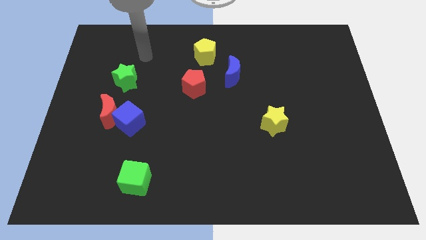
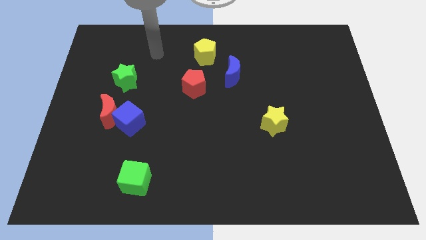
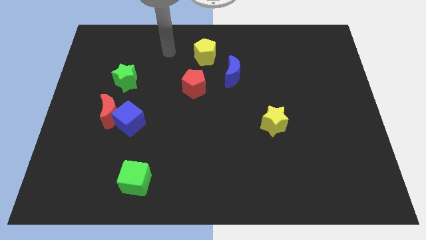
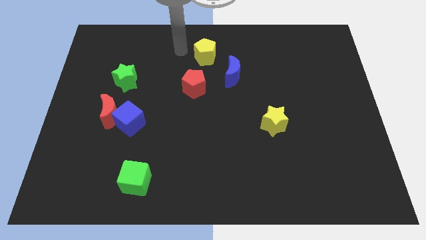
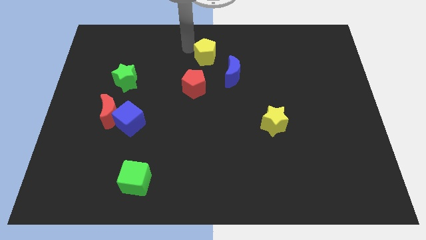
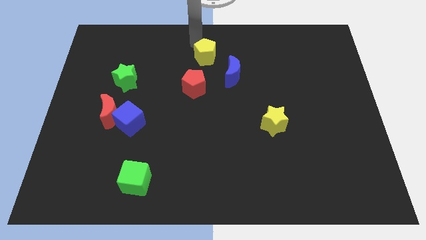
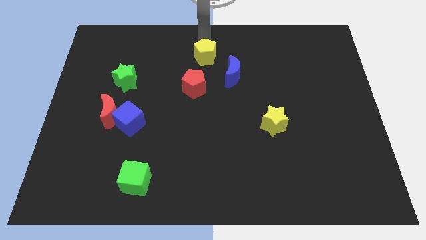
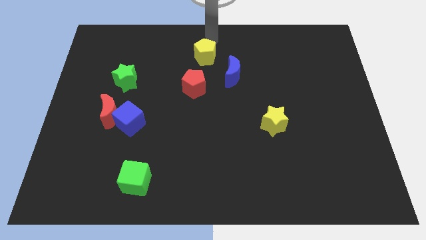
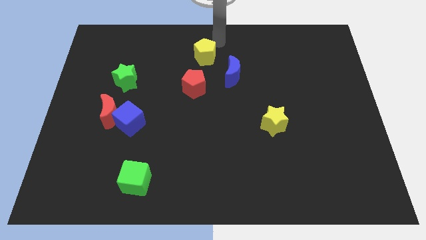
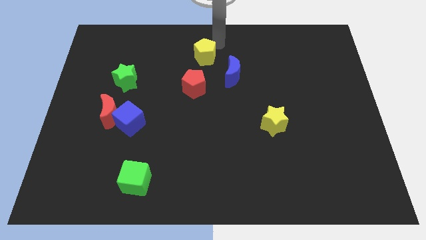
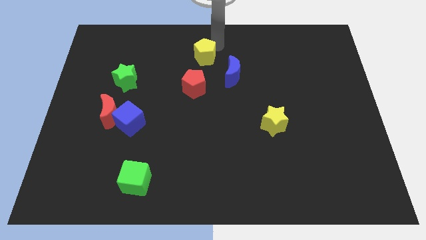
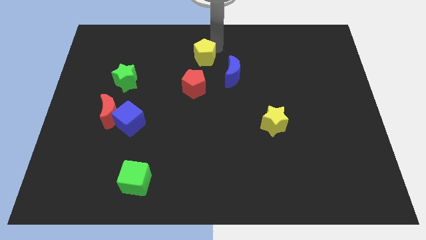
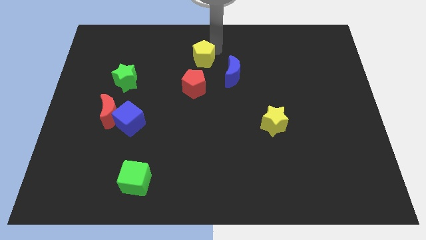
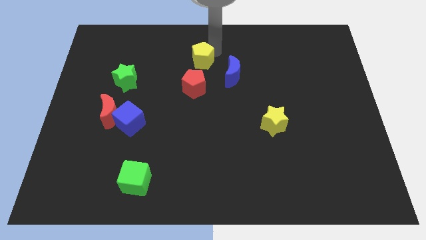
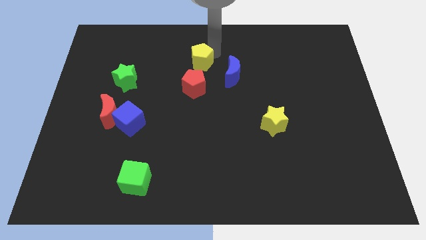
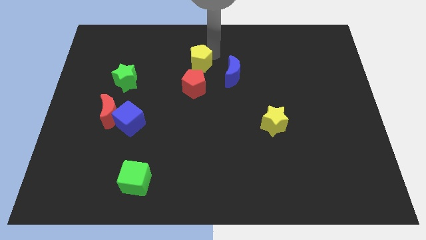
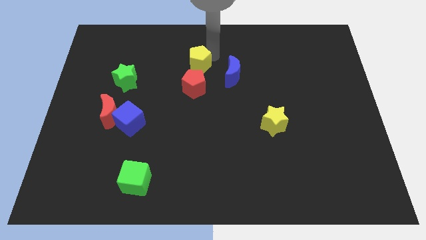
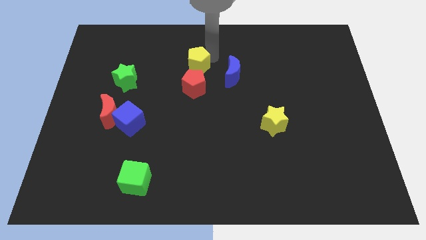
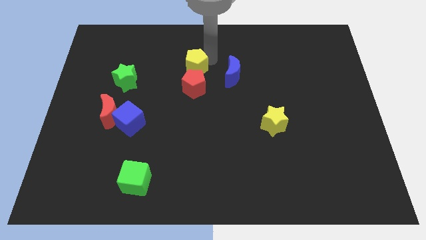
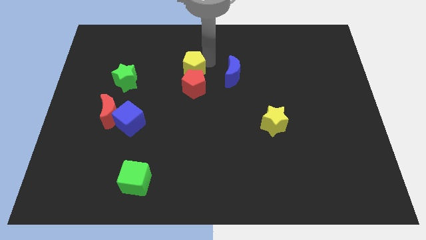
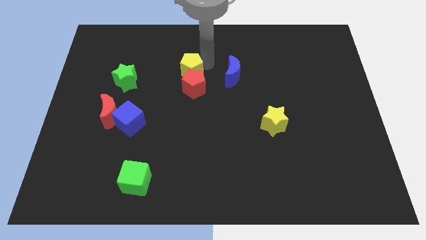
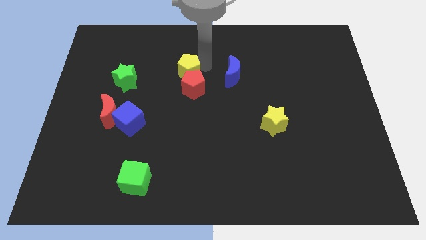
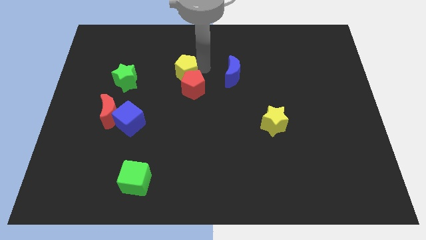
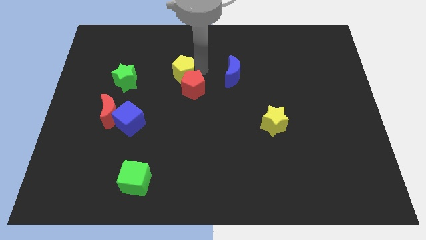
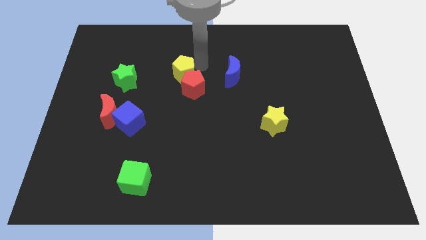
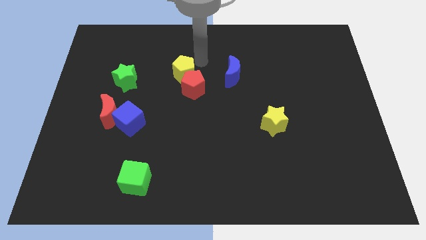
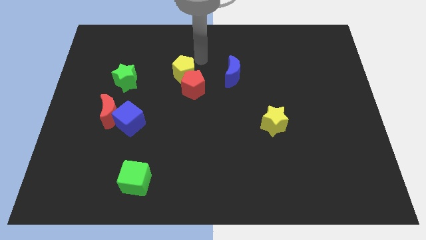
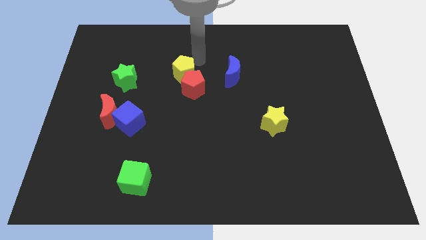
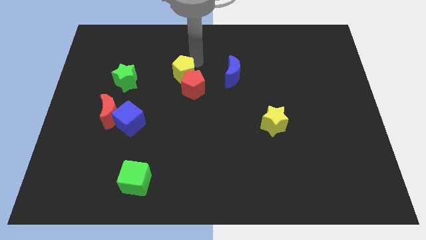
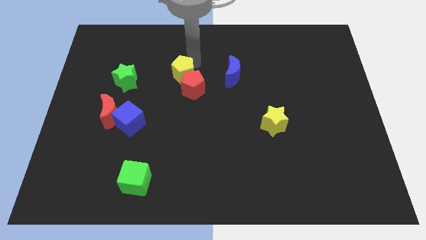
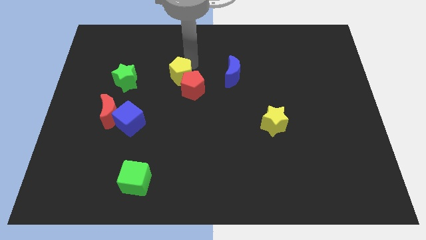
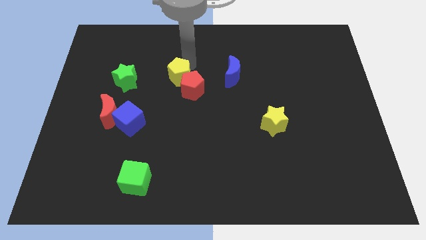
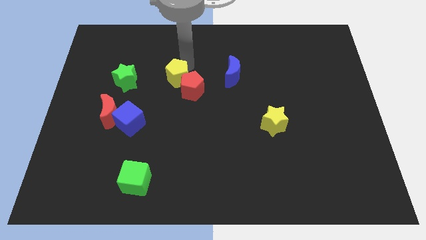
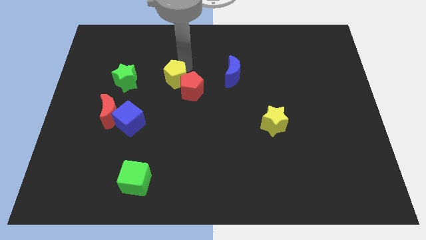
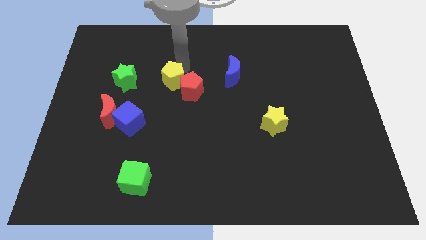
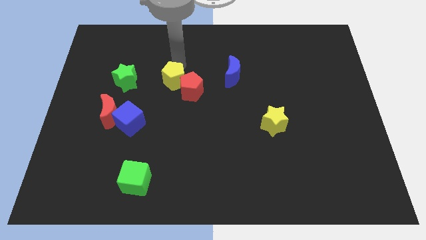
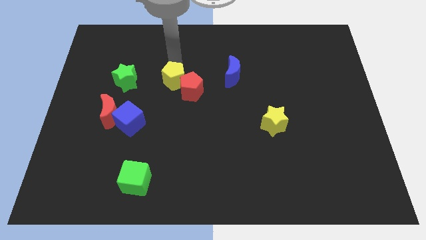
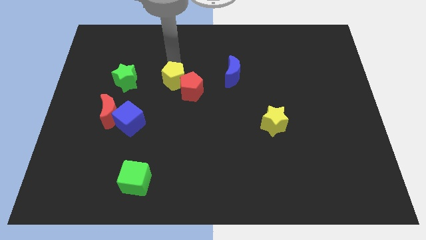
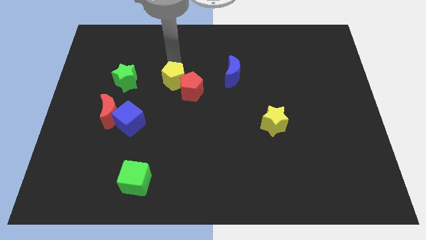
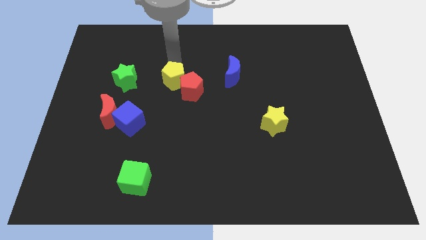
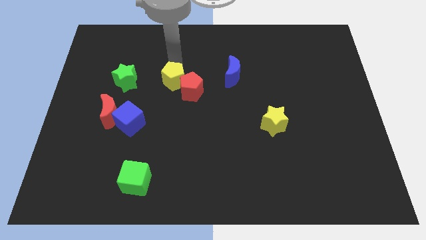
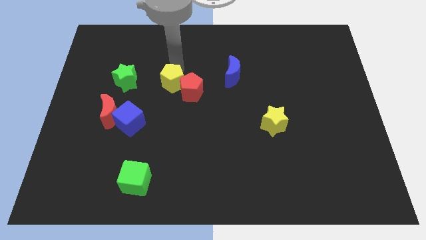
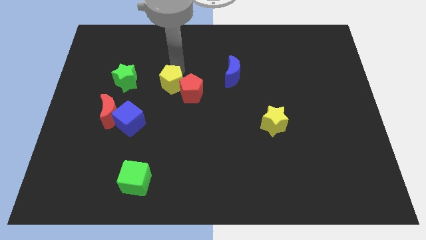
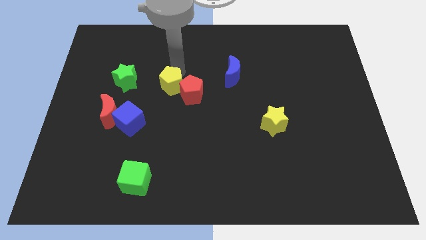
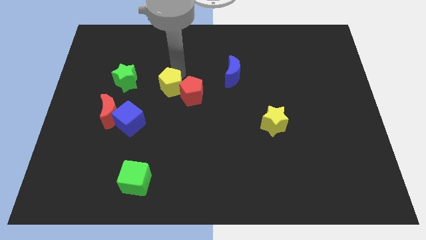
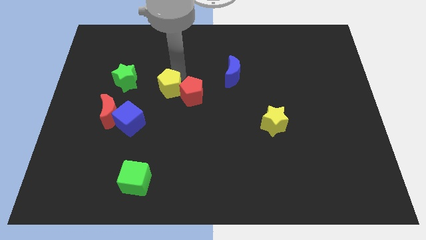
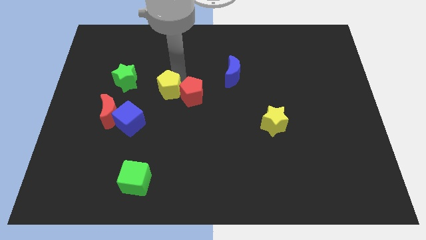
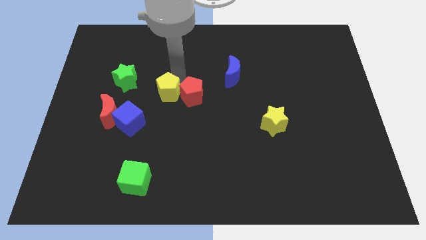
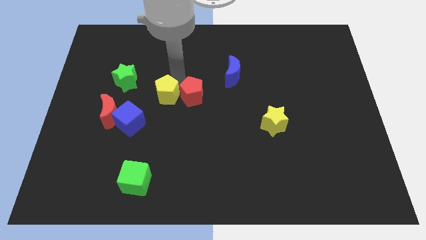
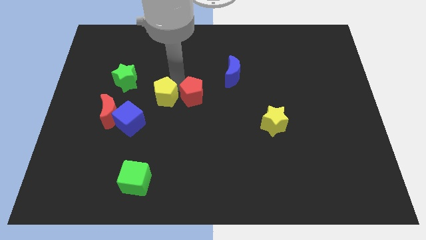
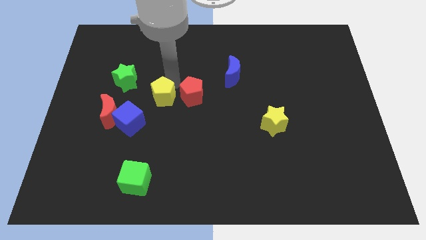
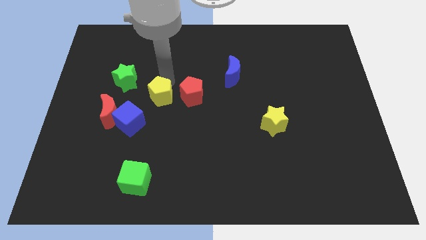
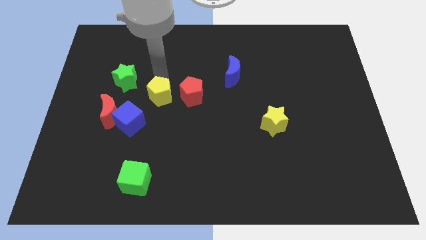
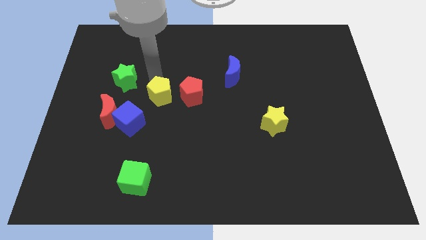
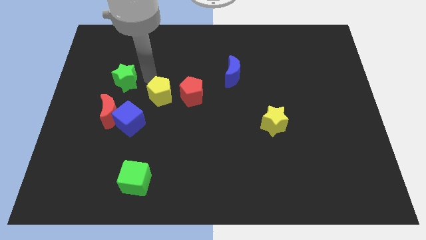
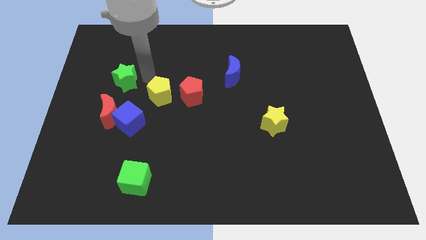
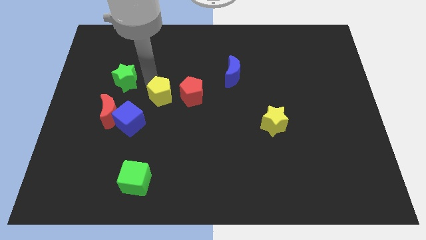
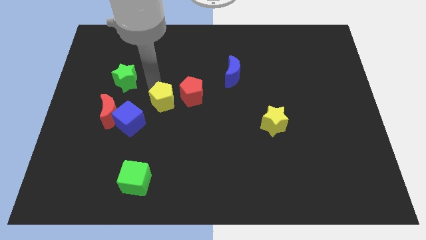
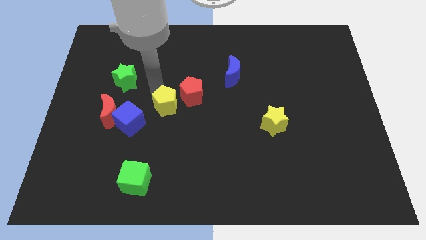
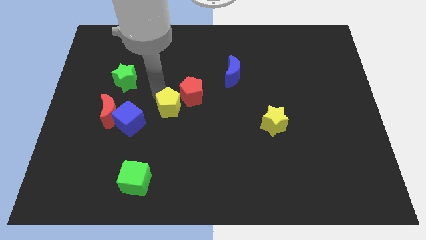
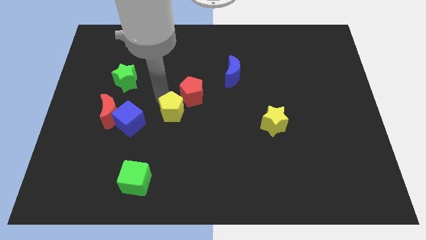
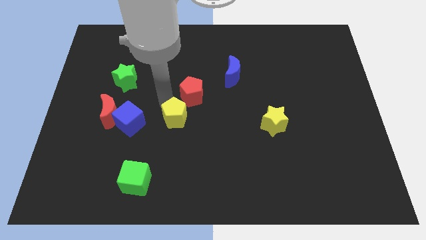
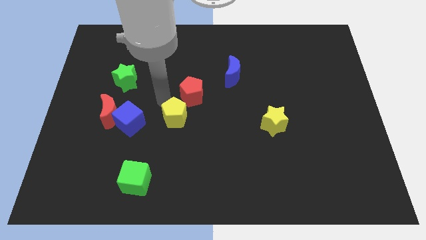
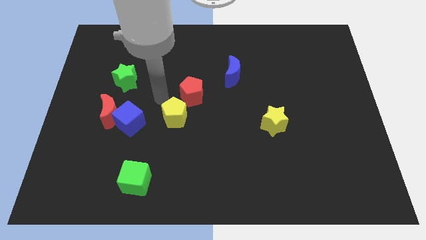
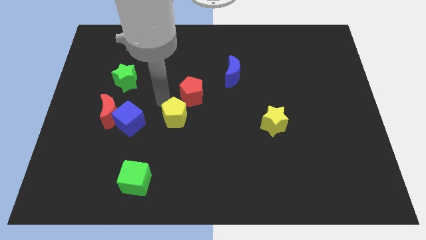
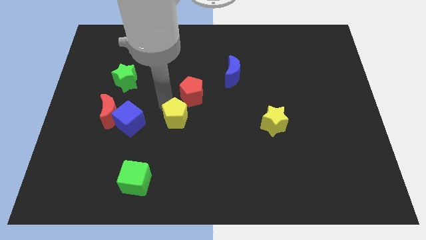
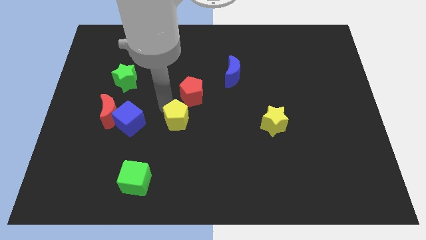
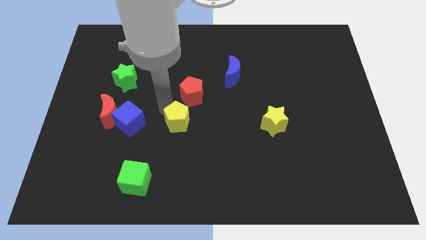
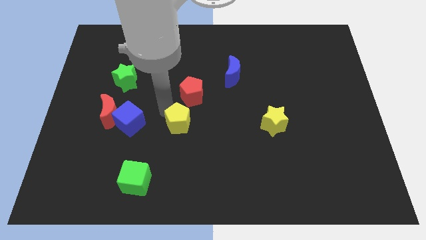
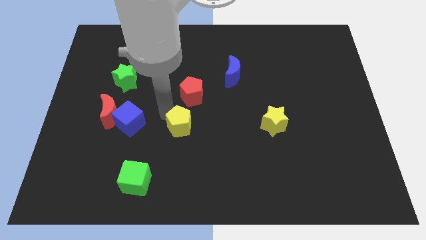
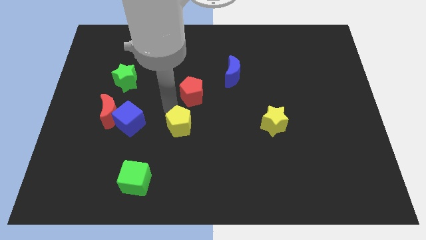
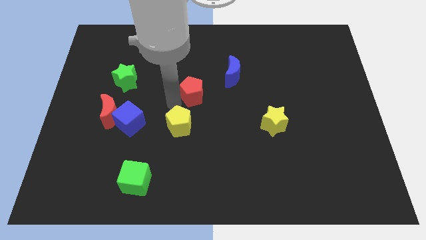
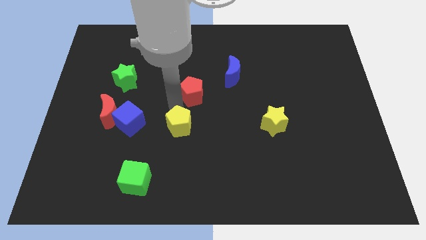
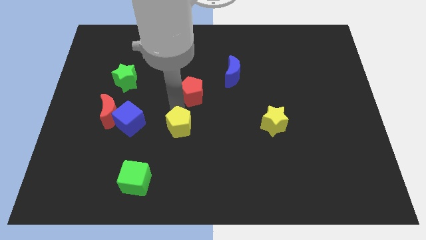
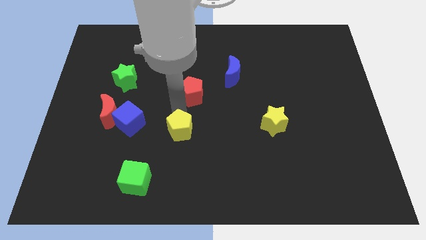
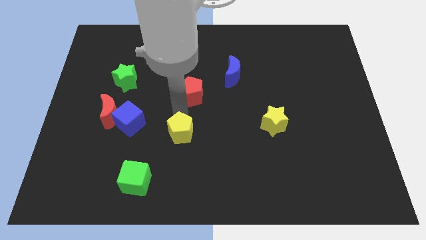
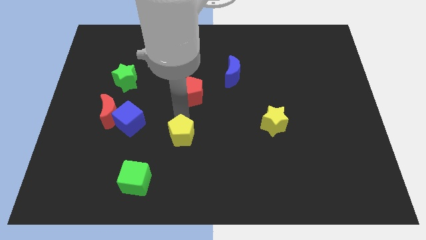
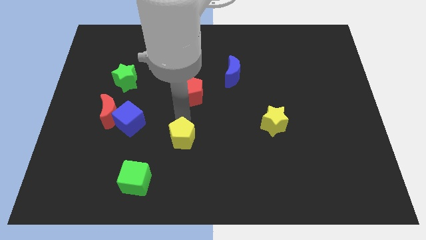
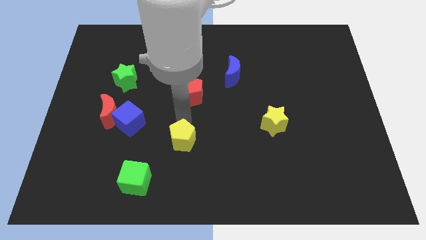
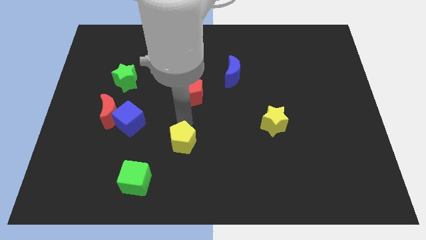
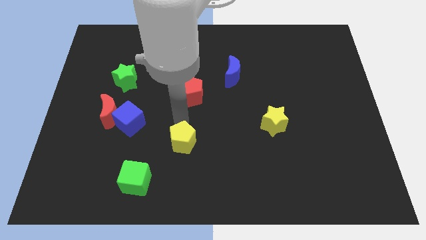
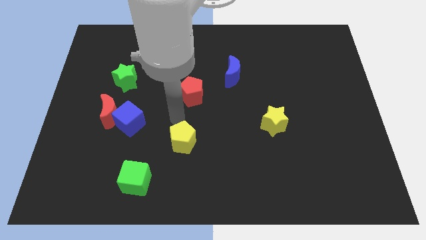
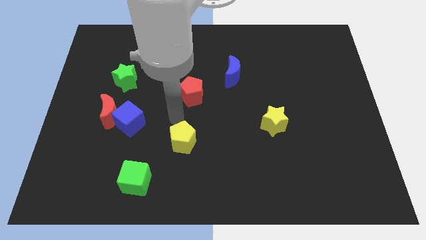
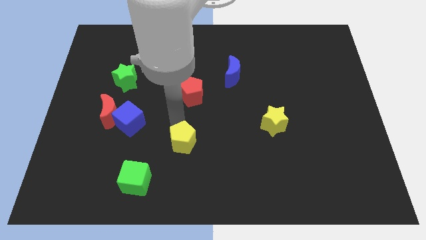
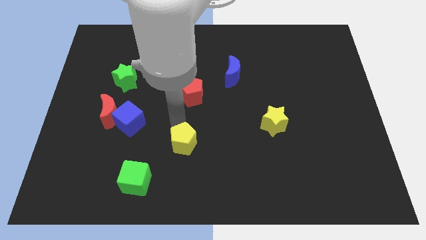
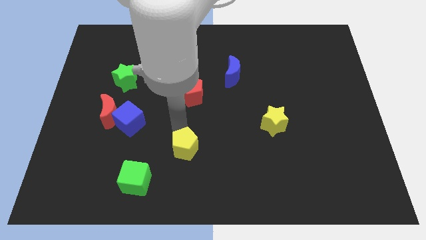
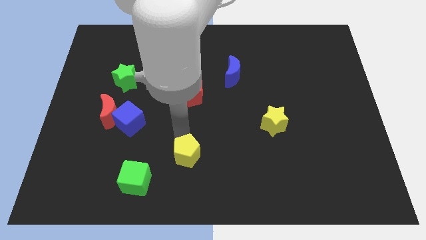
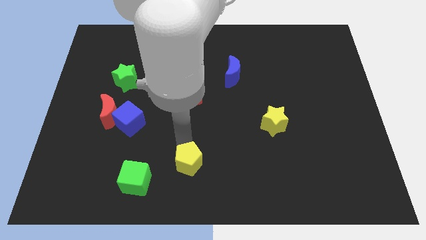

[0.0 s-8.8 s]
move the yellow pentagon to the bottom
